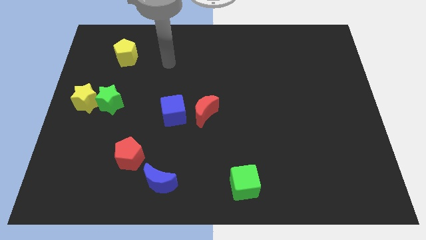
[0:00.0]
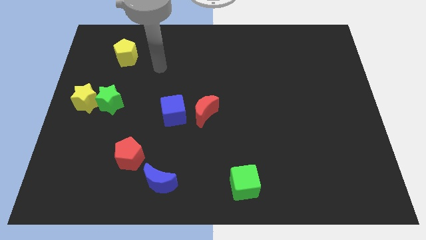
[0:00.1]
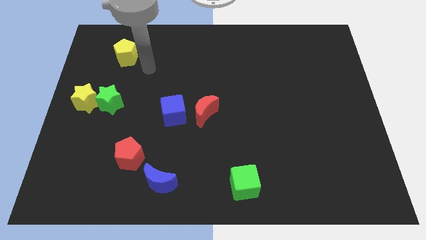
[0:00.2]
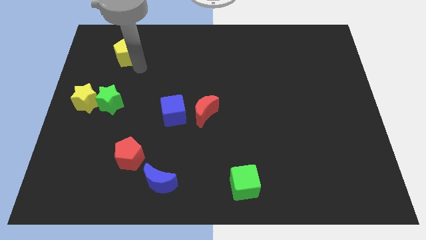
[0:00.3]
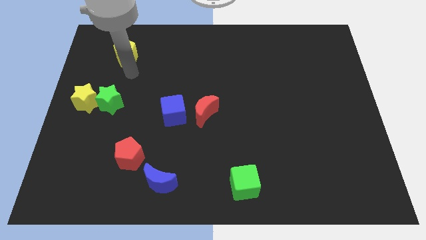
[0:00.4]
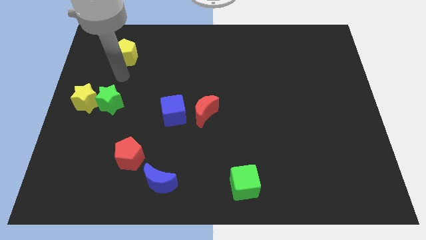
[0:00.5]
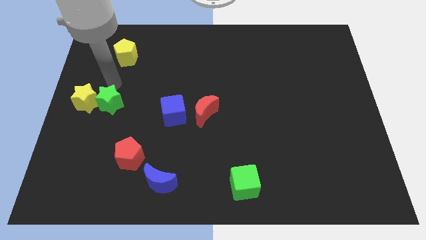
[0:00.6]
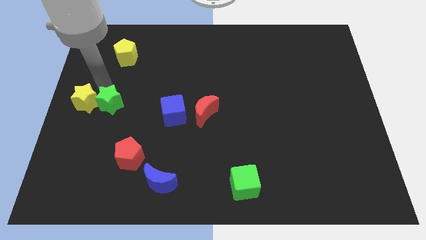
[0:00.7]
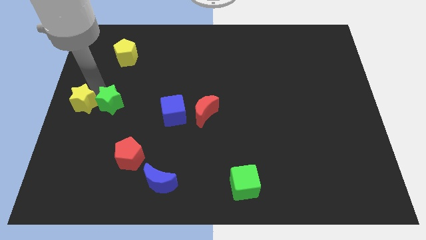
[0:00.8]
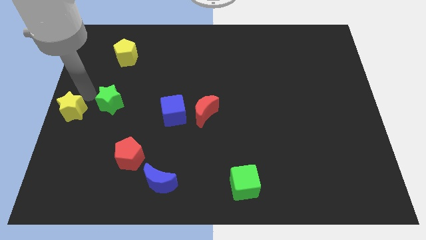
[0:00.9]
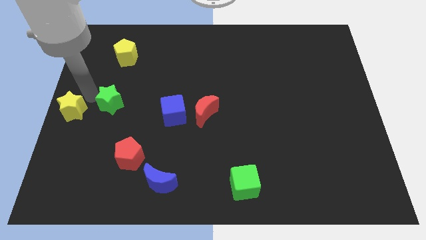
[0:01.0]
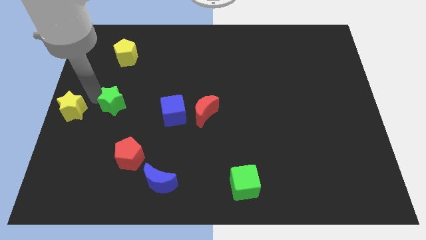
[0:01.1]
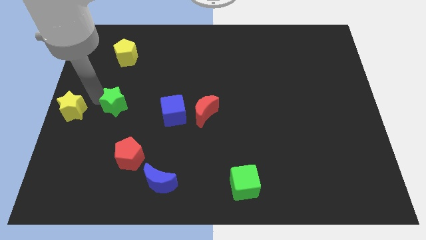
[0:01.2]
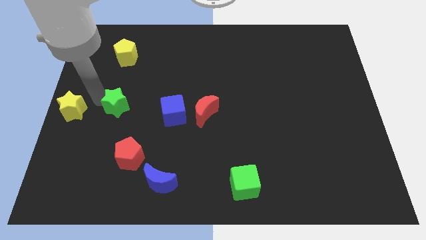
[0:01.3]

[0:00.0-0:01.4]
pull the green star apart from the yellow star

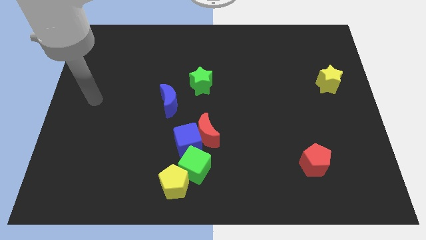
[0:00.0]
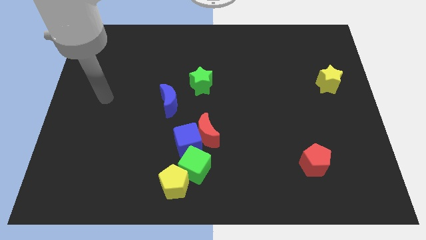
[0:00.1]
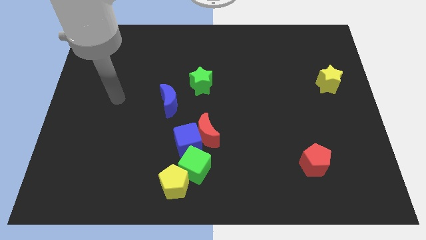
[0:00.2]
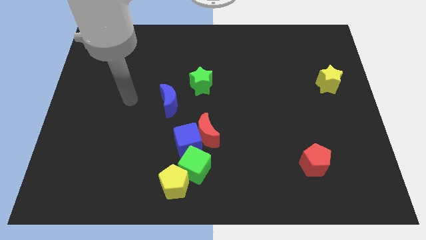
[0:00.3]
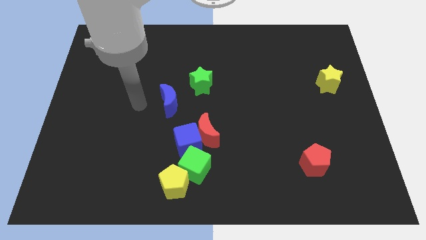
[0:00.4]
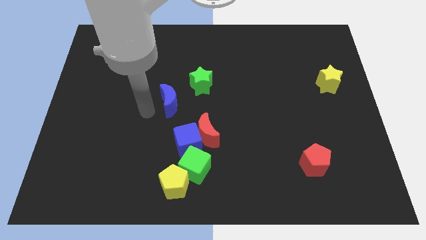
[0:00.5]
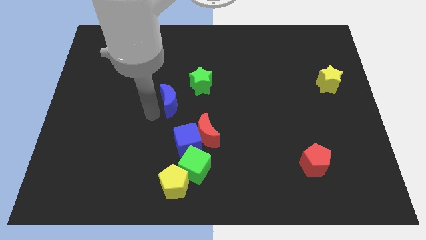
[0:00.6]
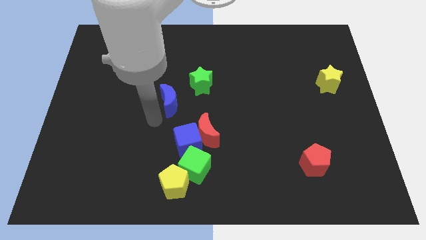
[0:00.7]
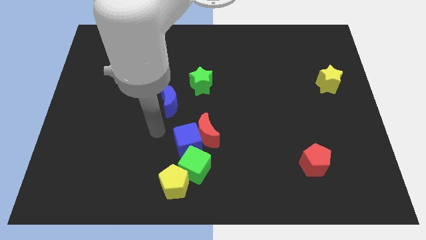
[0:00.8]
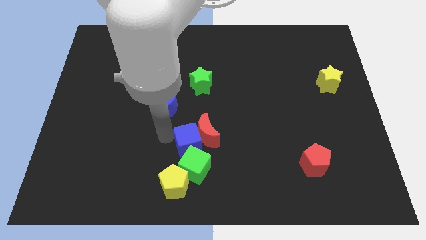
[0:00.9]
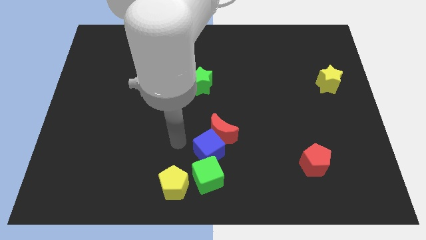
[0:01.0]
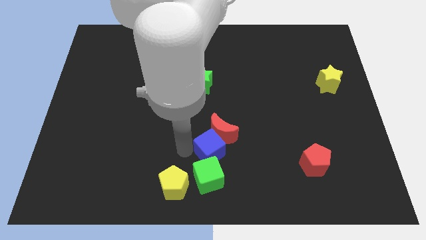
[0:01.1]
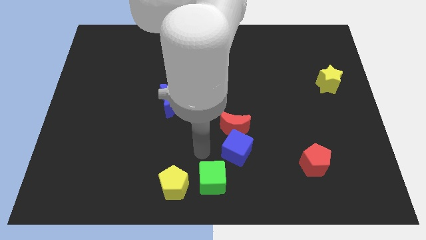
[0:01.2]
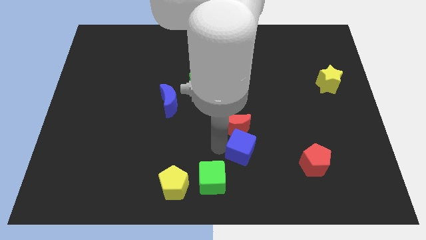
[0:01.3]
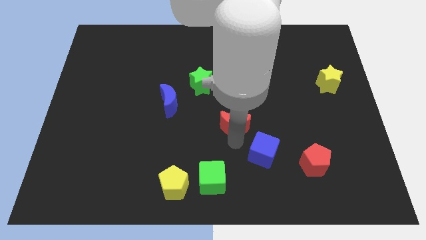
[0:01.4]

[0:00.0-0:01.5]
separate the red moon from the blue cube and green cube

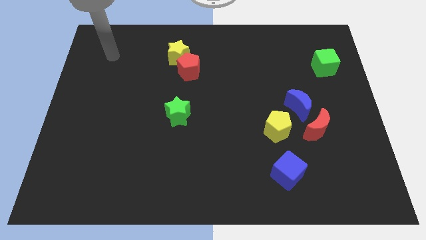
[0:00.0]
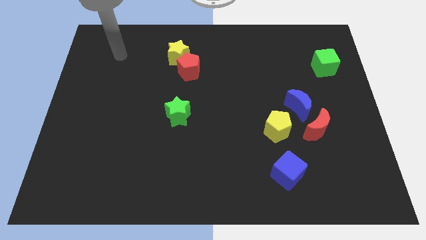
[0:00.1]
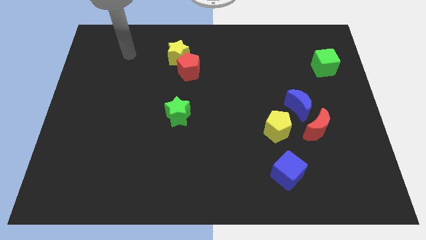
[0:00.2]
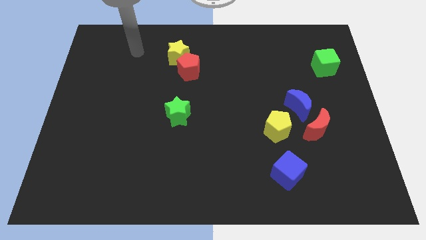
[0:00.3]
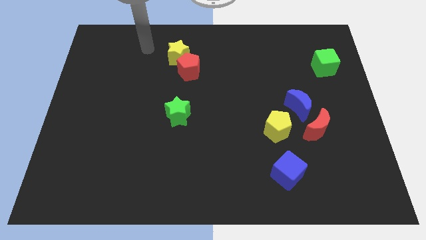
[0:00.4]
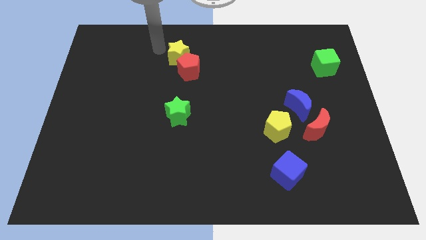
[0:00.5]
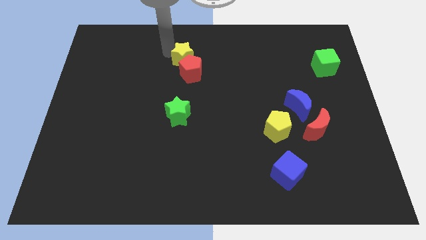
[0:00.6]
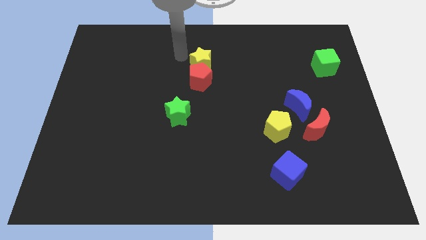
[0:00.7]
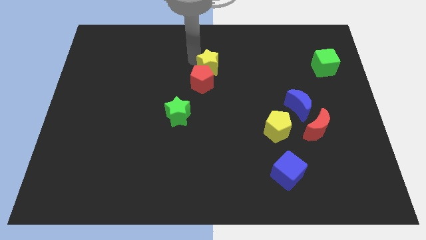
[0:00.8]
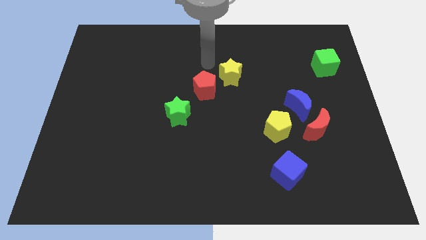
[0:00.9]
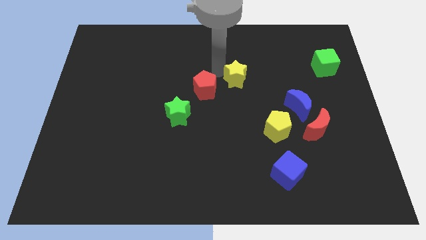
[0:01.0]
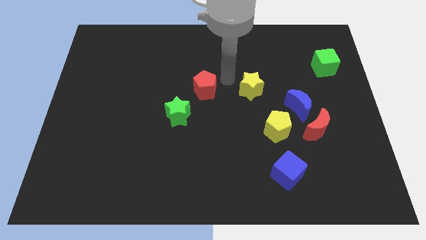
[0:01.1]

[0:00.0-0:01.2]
separate the red pentagon from the yellow star

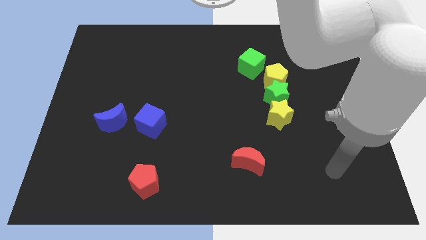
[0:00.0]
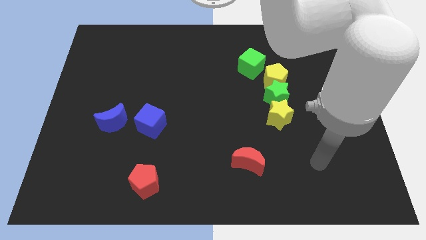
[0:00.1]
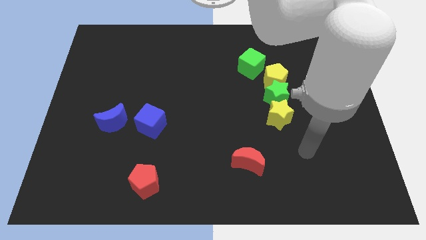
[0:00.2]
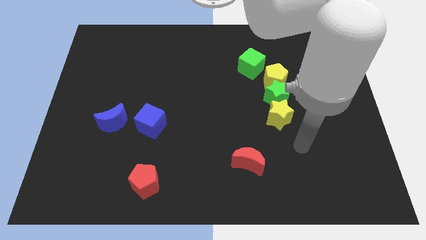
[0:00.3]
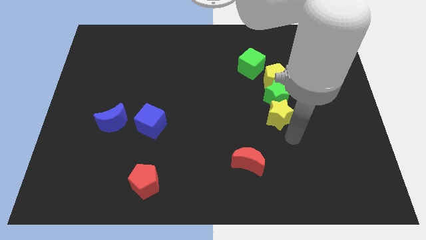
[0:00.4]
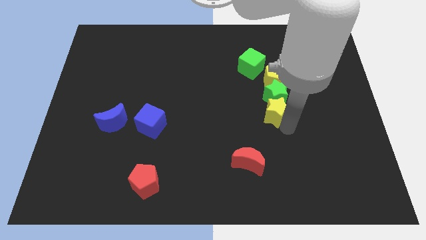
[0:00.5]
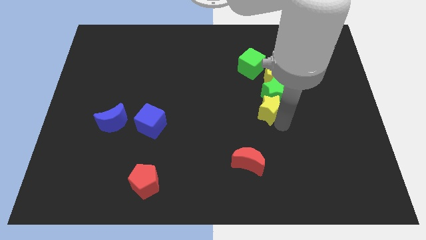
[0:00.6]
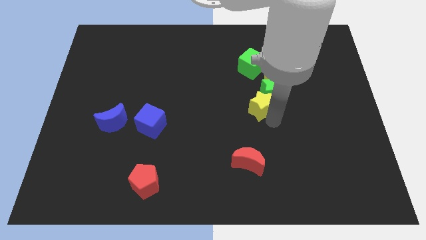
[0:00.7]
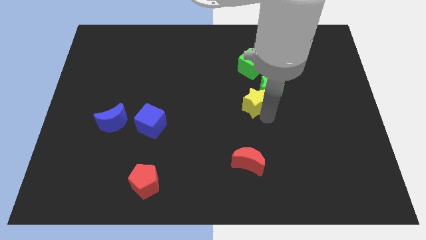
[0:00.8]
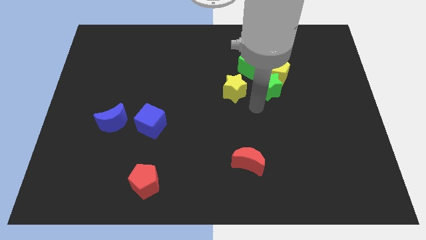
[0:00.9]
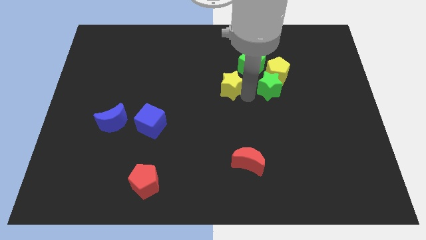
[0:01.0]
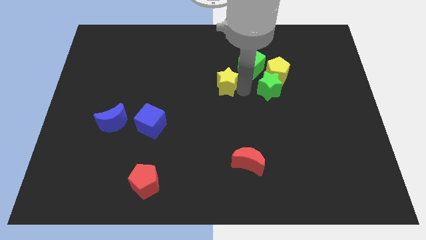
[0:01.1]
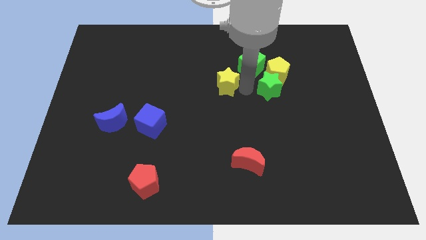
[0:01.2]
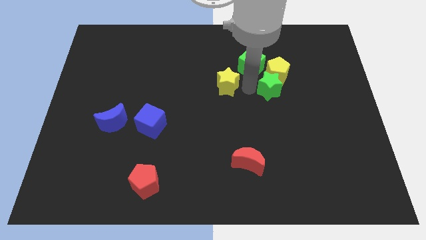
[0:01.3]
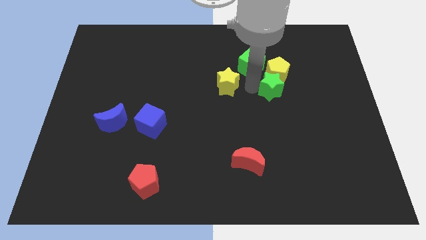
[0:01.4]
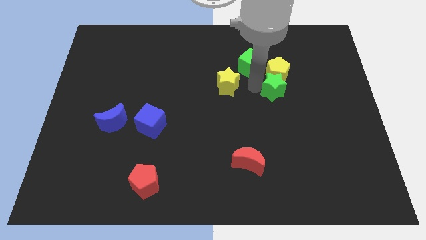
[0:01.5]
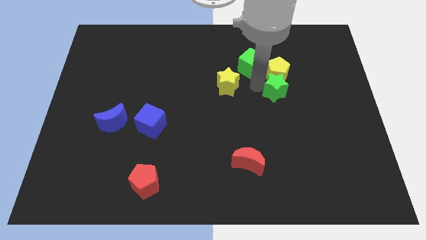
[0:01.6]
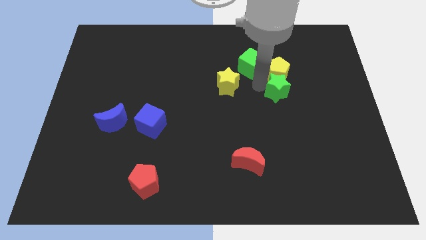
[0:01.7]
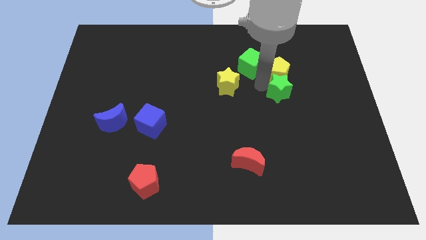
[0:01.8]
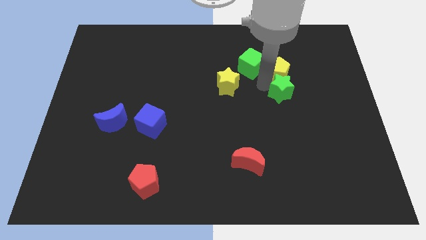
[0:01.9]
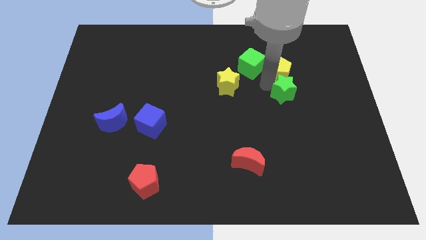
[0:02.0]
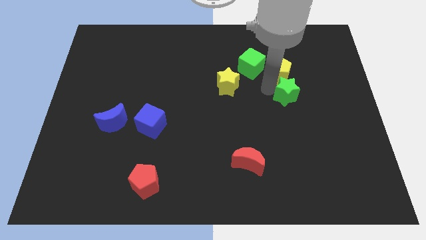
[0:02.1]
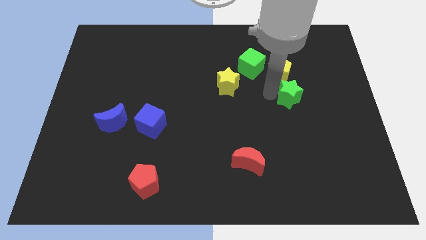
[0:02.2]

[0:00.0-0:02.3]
pull the green star apart from the yellow pentagon and yellow star

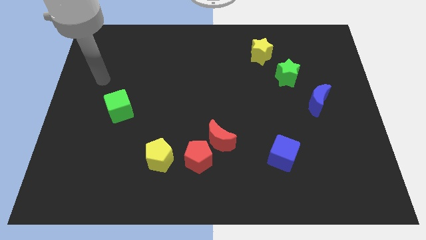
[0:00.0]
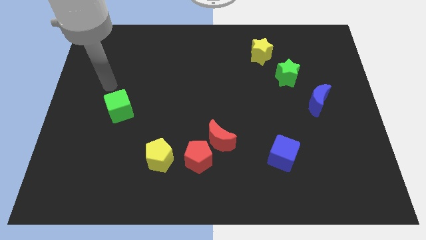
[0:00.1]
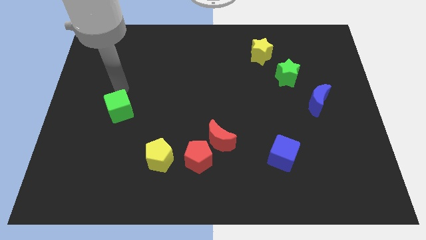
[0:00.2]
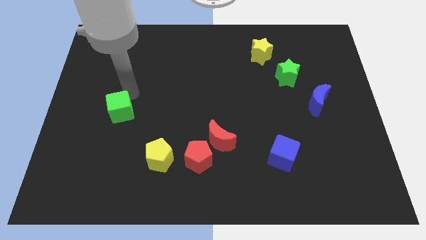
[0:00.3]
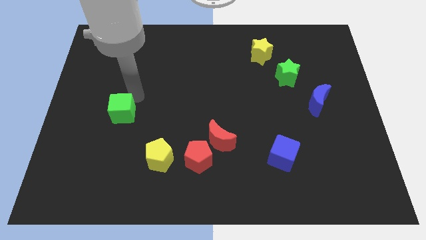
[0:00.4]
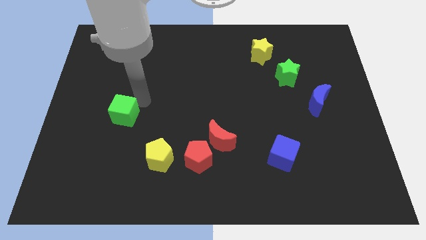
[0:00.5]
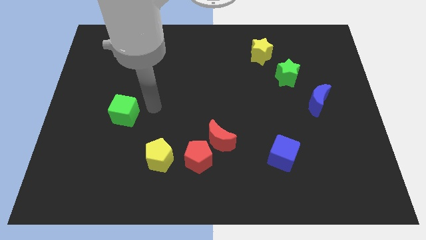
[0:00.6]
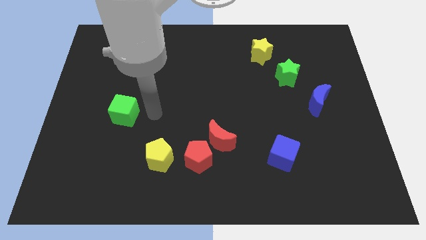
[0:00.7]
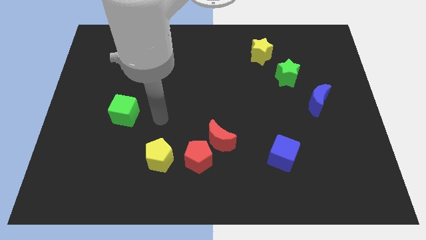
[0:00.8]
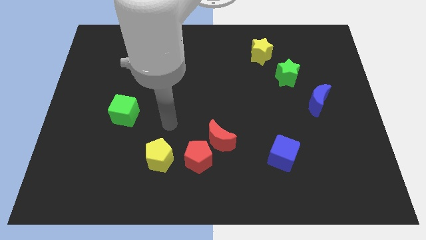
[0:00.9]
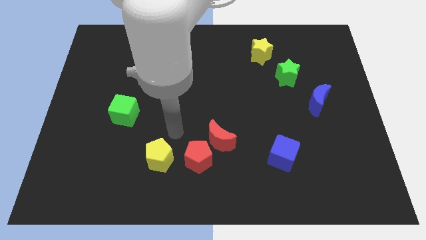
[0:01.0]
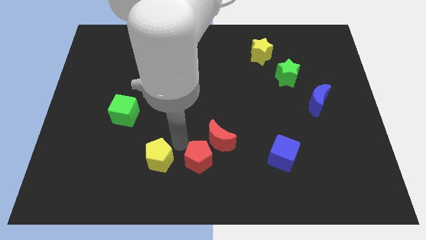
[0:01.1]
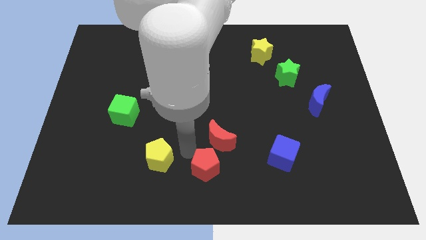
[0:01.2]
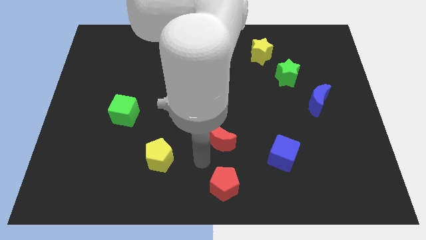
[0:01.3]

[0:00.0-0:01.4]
pull the red moon apart from the red pentagon

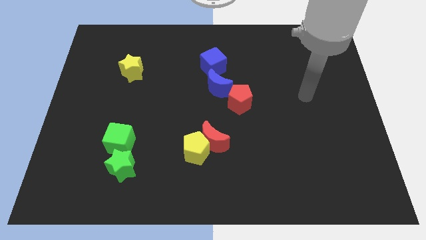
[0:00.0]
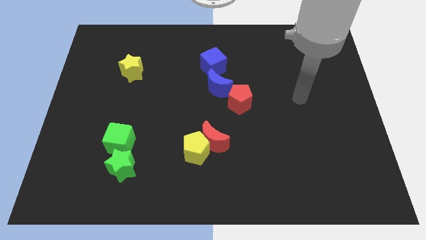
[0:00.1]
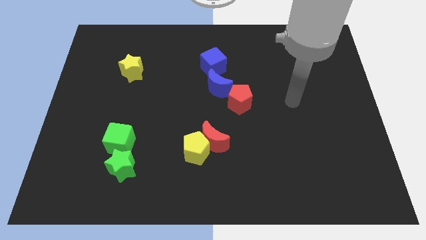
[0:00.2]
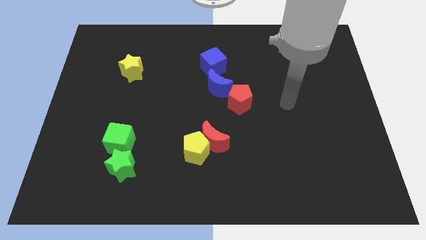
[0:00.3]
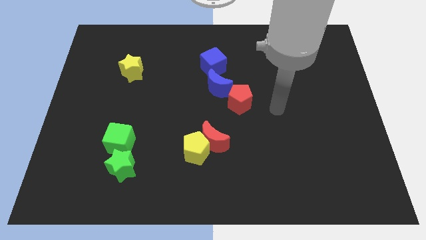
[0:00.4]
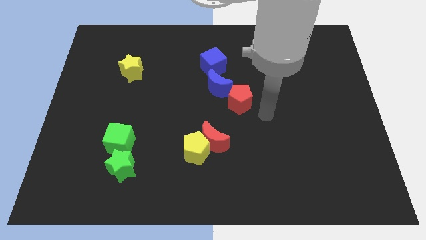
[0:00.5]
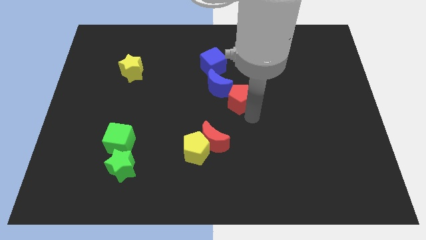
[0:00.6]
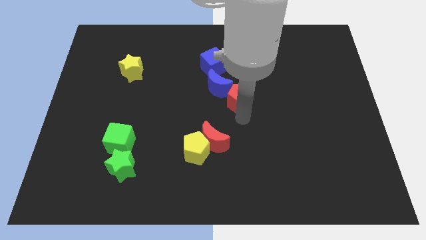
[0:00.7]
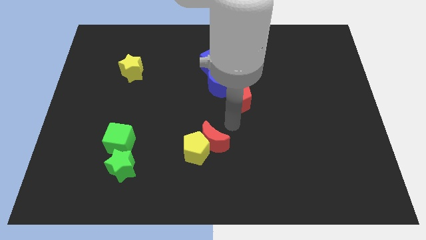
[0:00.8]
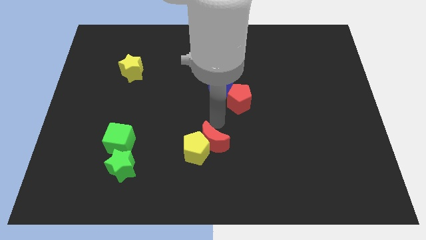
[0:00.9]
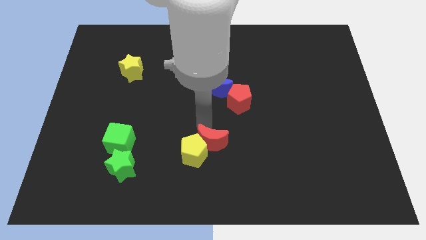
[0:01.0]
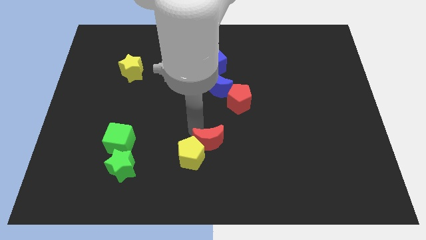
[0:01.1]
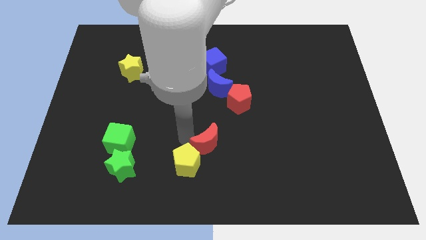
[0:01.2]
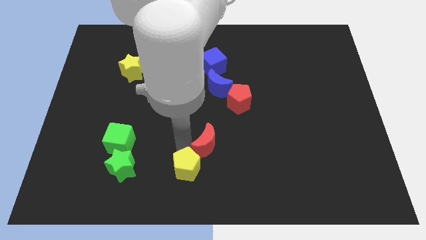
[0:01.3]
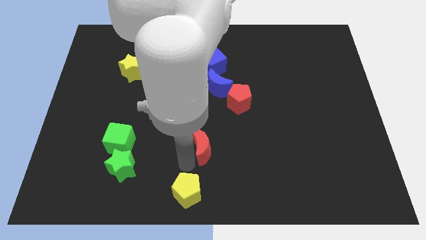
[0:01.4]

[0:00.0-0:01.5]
pull the red moon apart from the yellow pentagon
